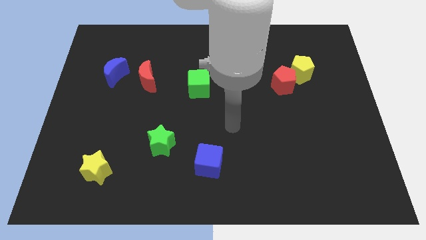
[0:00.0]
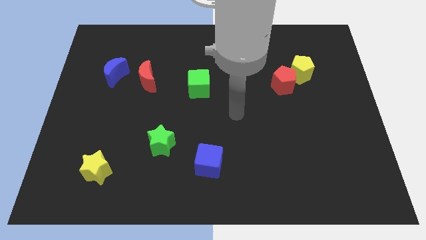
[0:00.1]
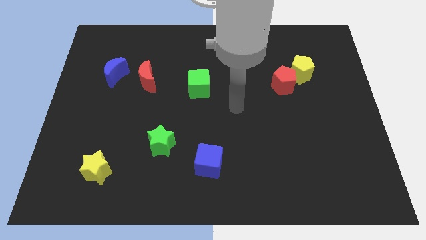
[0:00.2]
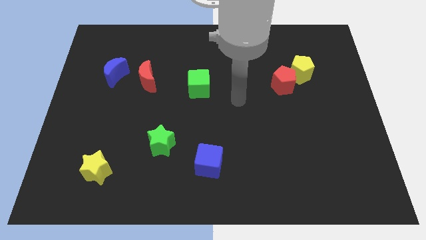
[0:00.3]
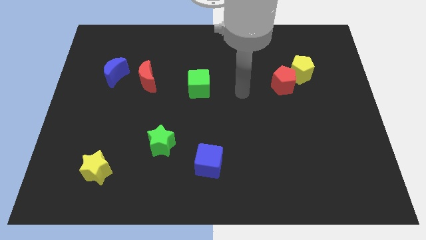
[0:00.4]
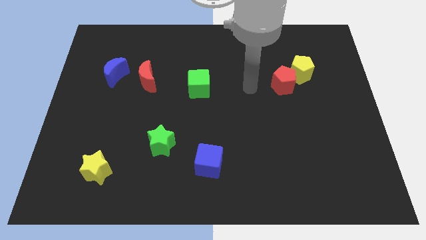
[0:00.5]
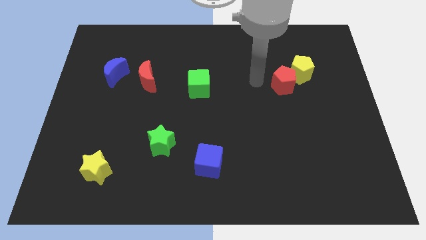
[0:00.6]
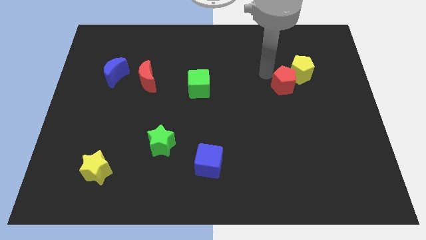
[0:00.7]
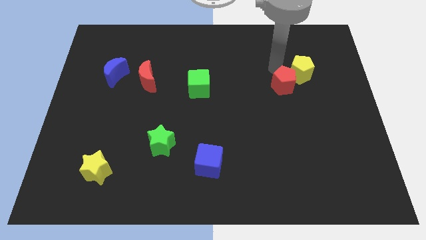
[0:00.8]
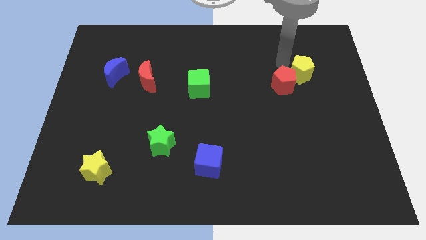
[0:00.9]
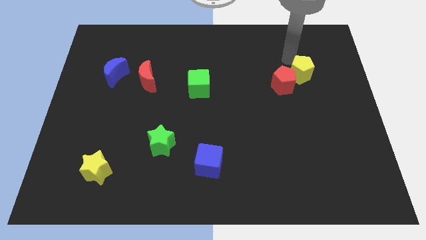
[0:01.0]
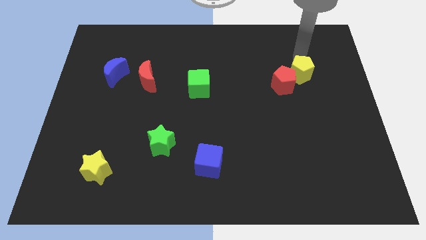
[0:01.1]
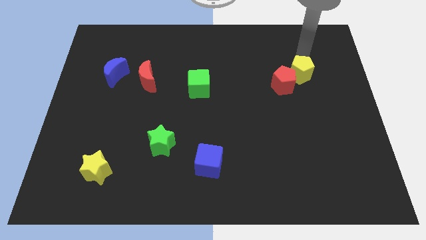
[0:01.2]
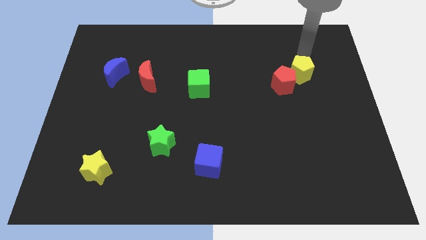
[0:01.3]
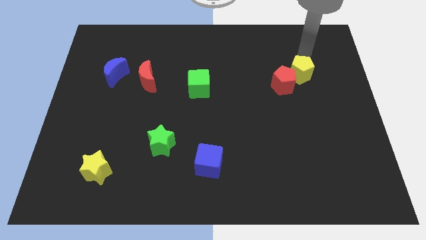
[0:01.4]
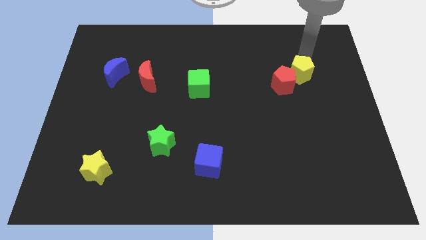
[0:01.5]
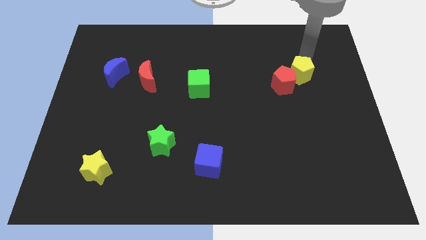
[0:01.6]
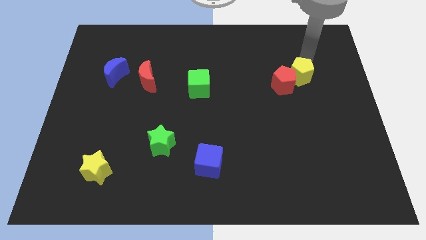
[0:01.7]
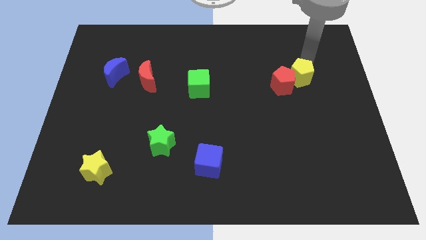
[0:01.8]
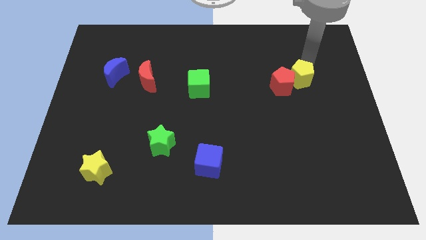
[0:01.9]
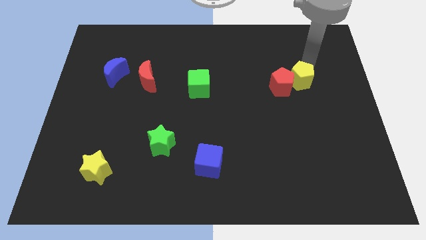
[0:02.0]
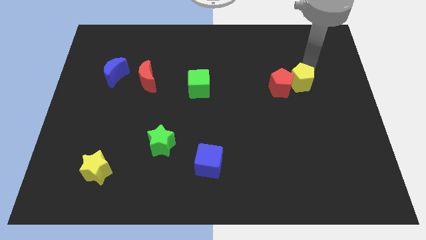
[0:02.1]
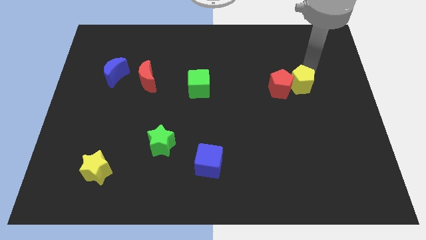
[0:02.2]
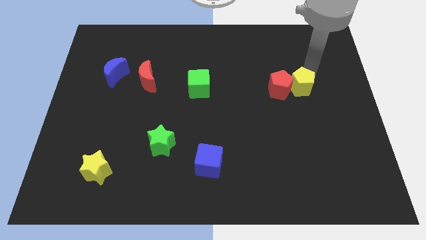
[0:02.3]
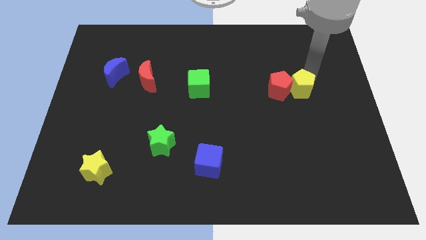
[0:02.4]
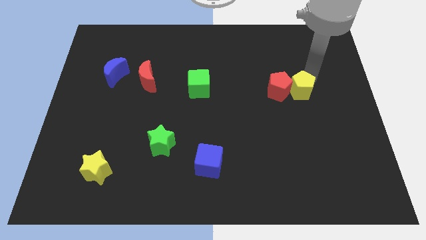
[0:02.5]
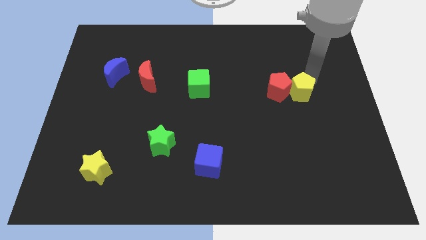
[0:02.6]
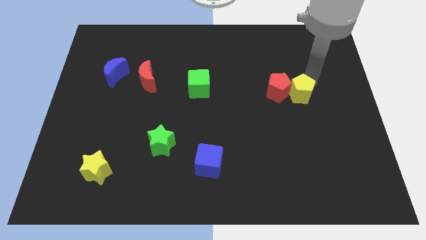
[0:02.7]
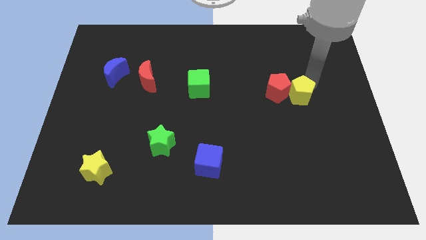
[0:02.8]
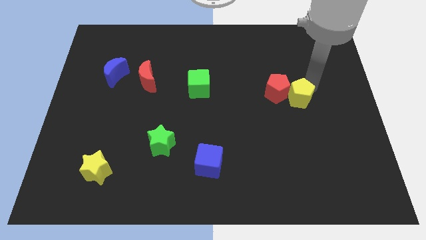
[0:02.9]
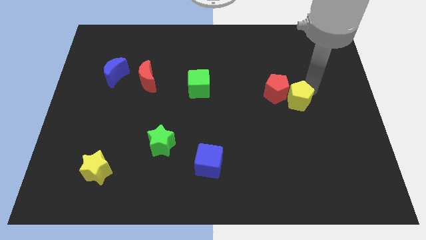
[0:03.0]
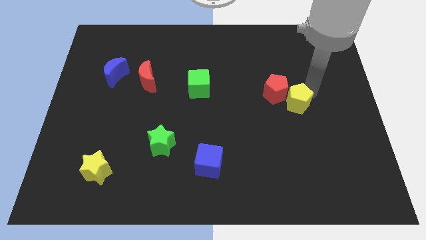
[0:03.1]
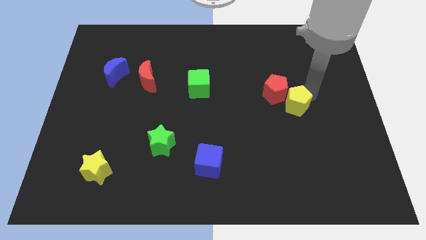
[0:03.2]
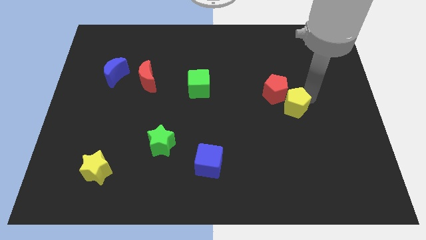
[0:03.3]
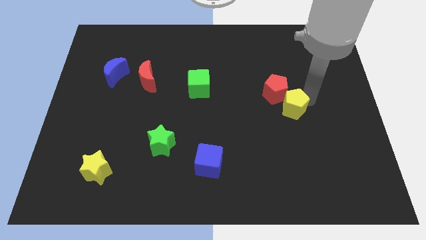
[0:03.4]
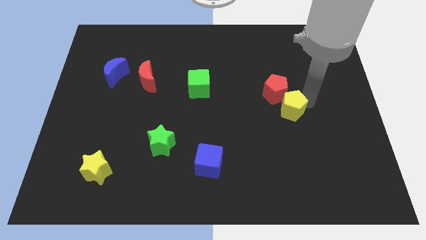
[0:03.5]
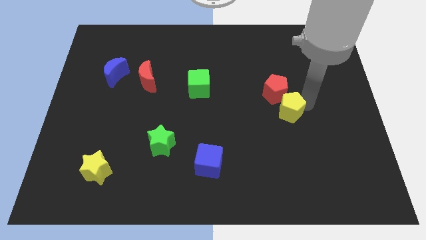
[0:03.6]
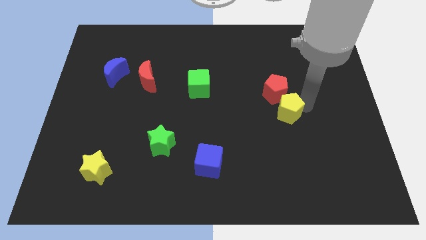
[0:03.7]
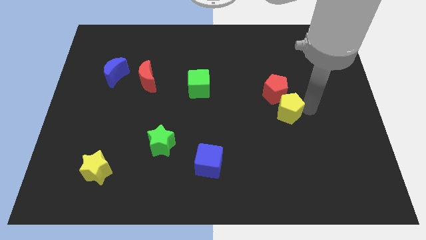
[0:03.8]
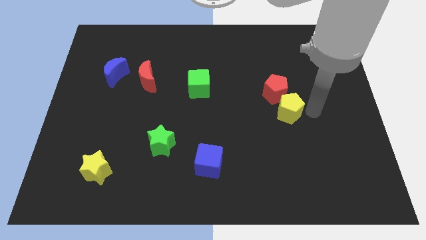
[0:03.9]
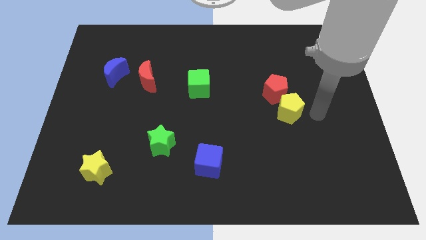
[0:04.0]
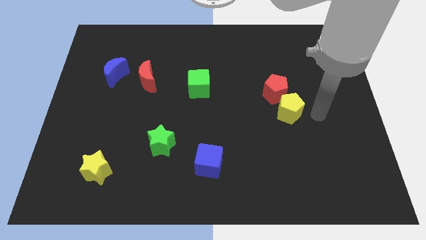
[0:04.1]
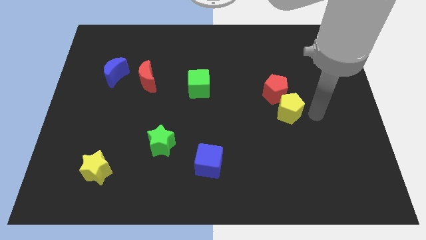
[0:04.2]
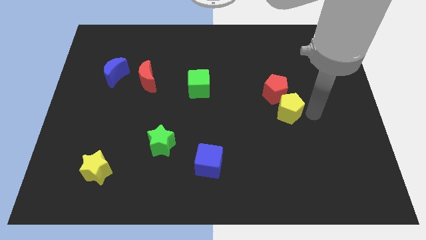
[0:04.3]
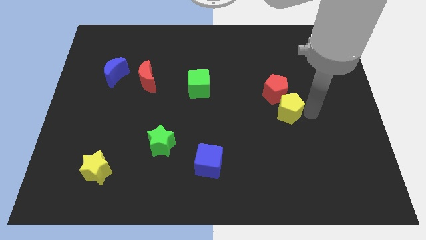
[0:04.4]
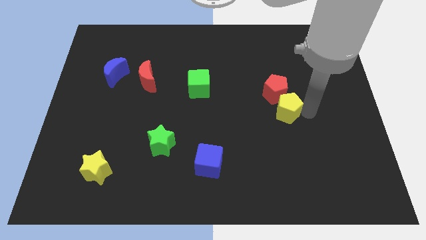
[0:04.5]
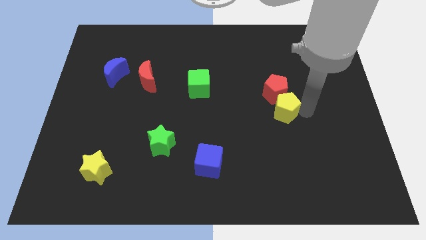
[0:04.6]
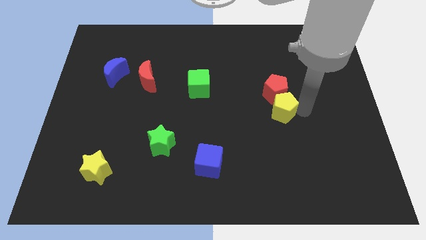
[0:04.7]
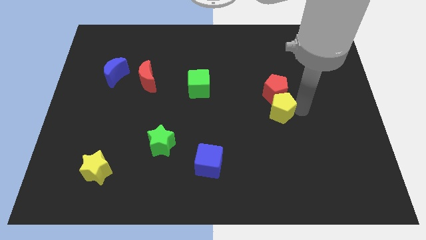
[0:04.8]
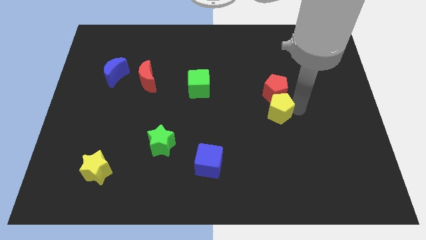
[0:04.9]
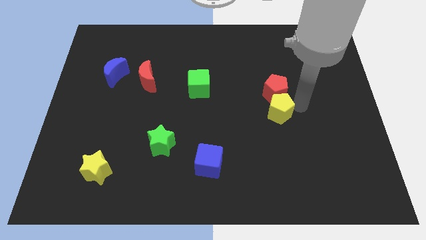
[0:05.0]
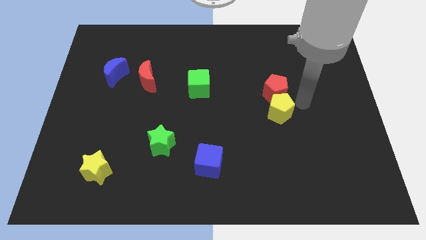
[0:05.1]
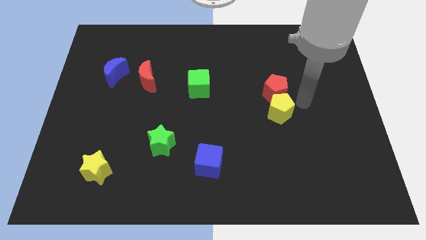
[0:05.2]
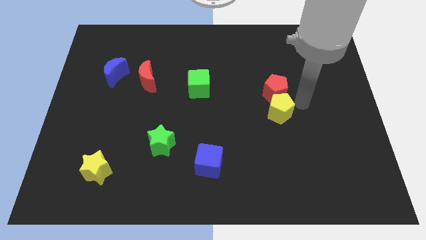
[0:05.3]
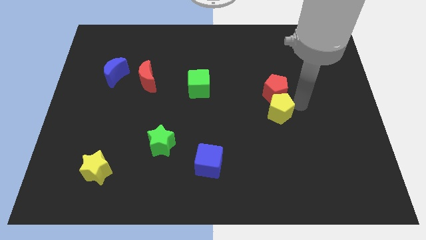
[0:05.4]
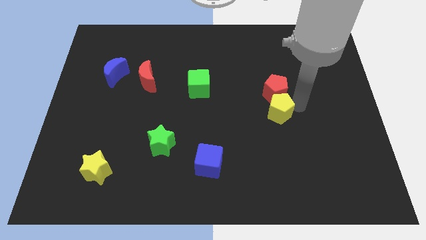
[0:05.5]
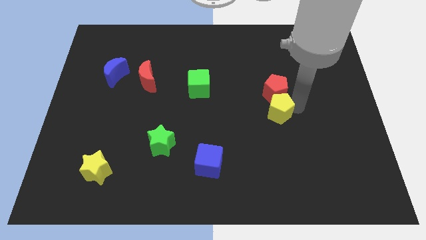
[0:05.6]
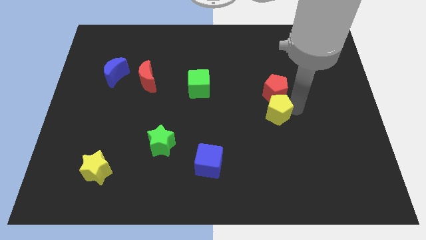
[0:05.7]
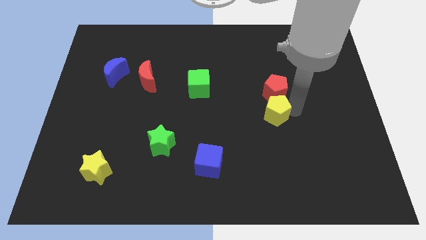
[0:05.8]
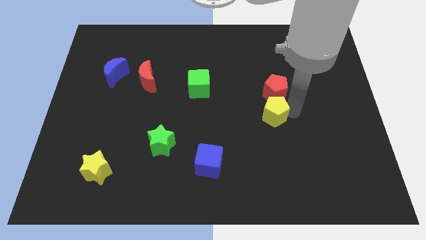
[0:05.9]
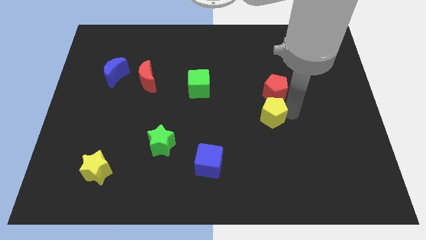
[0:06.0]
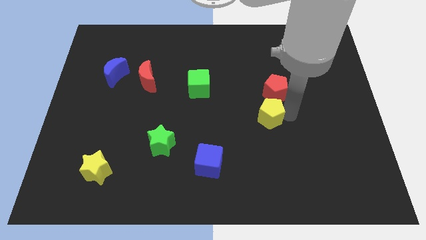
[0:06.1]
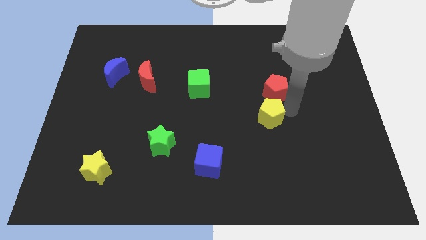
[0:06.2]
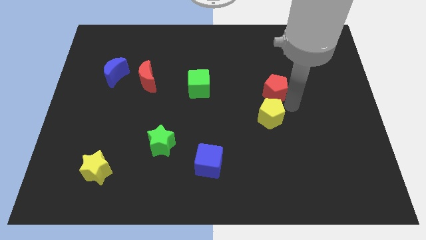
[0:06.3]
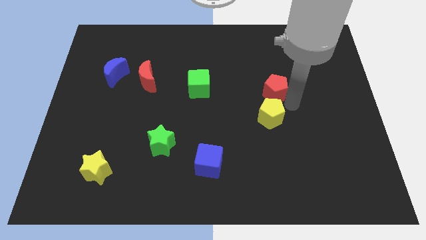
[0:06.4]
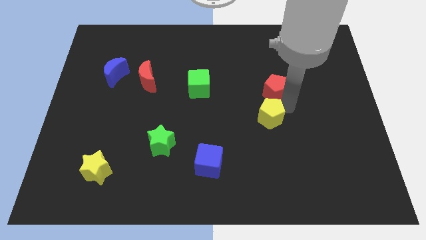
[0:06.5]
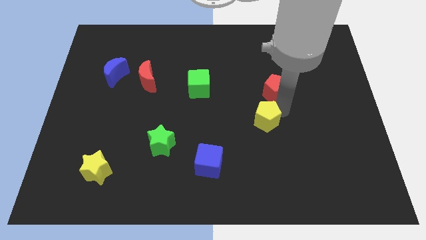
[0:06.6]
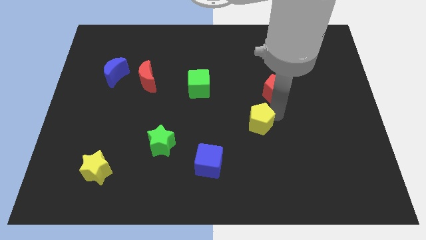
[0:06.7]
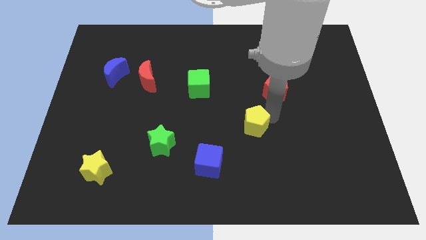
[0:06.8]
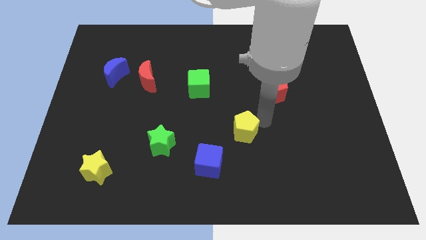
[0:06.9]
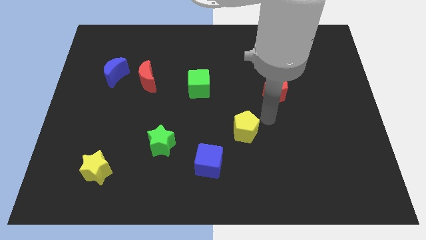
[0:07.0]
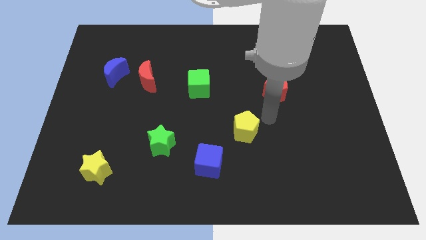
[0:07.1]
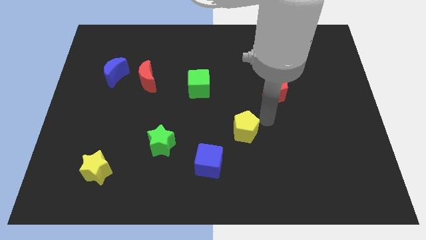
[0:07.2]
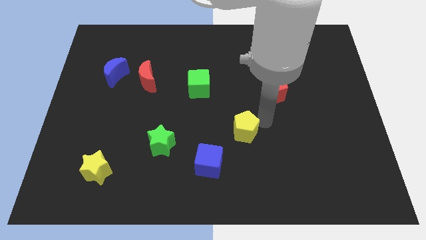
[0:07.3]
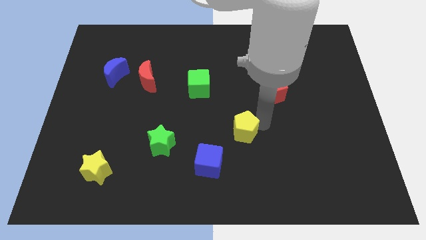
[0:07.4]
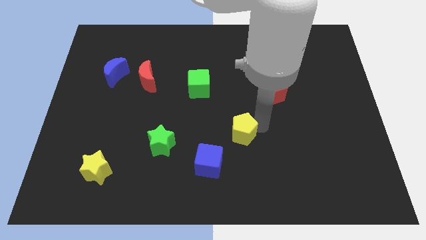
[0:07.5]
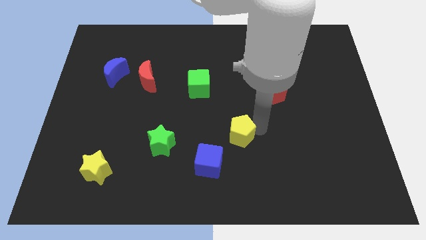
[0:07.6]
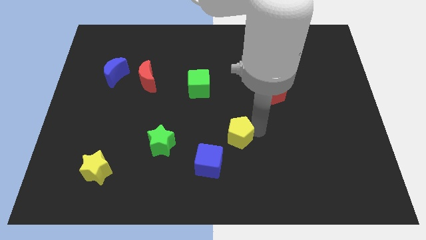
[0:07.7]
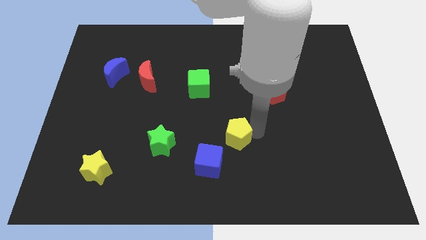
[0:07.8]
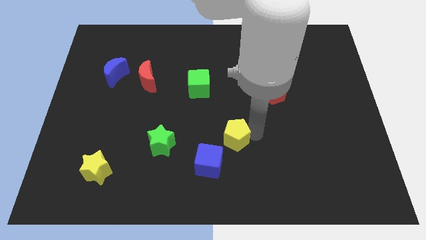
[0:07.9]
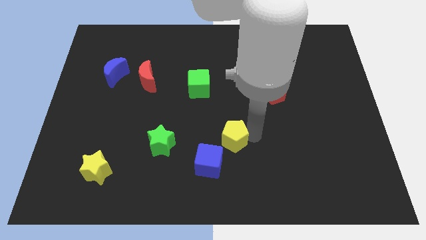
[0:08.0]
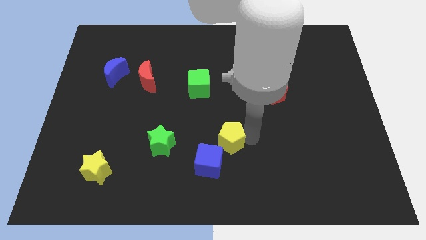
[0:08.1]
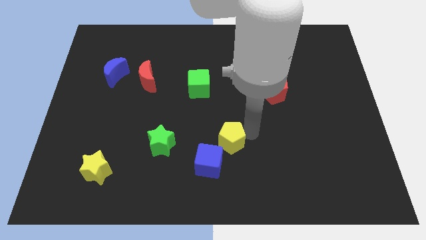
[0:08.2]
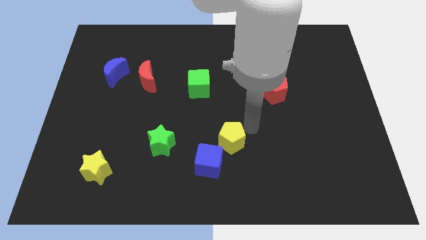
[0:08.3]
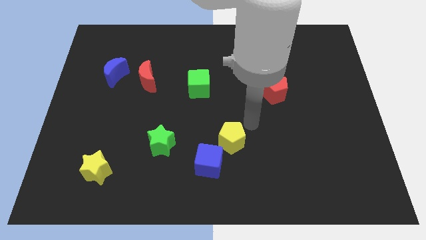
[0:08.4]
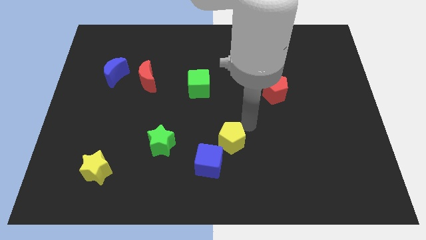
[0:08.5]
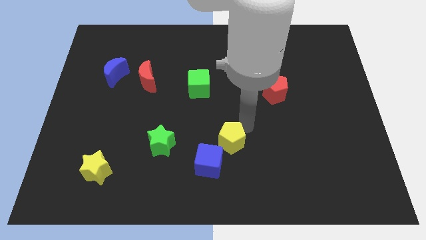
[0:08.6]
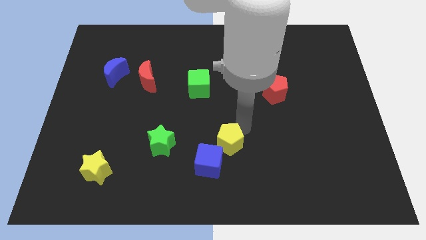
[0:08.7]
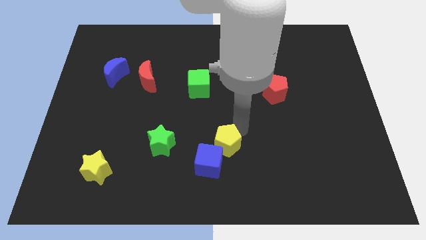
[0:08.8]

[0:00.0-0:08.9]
move the yellow pentagon close to the blue cube
